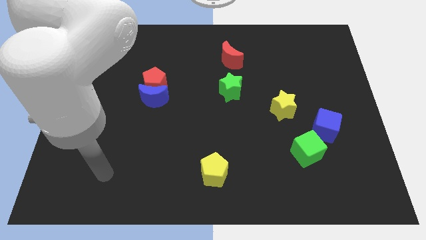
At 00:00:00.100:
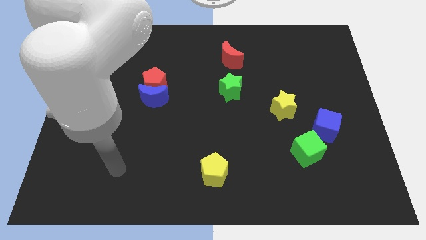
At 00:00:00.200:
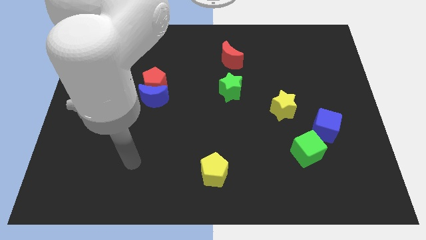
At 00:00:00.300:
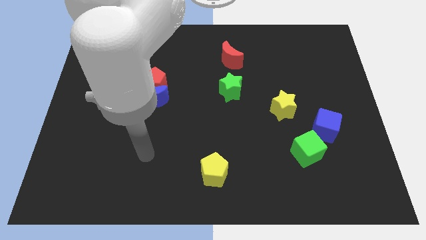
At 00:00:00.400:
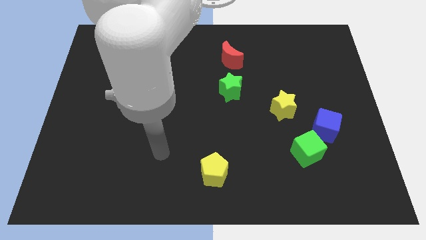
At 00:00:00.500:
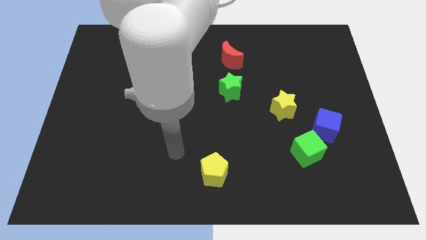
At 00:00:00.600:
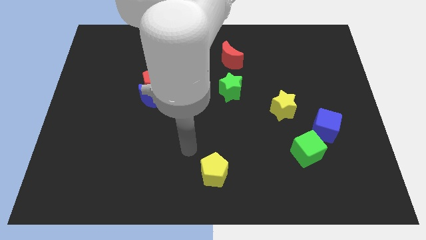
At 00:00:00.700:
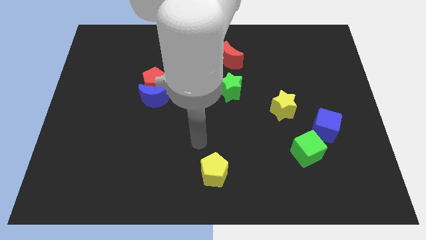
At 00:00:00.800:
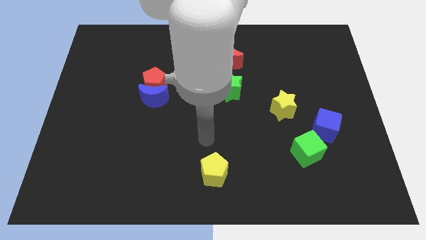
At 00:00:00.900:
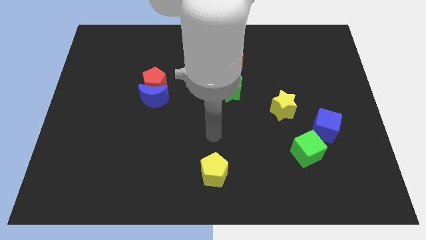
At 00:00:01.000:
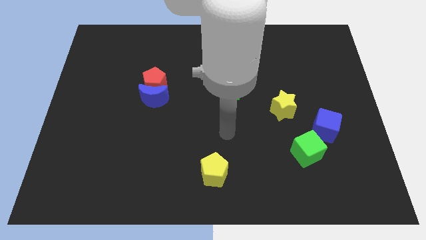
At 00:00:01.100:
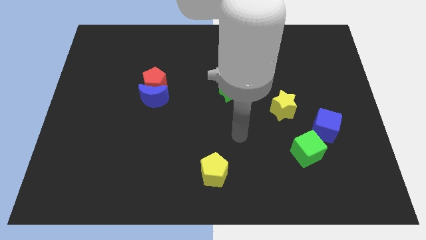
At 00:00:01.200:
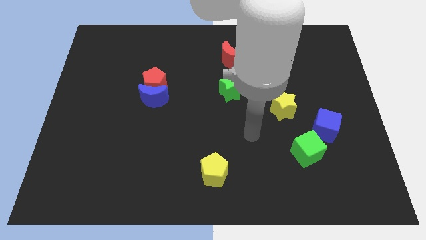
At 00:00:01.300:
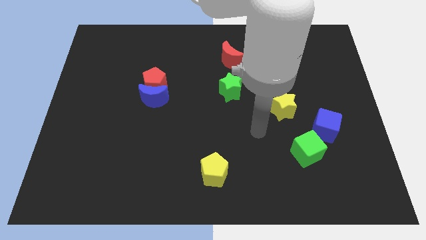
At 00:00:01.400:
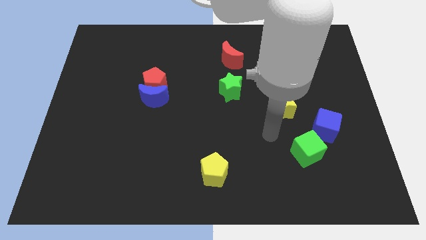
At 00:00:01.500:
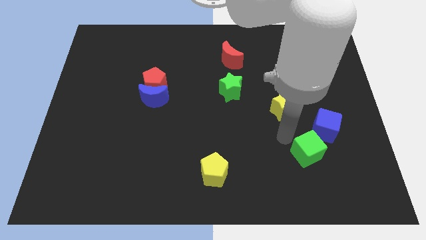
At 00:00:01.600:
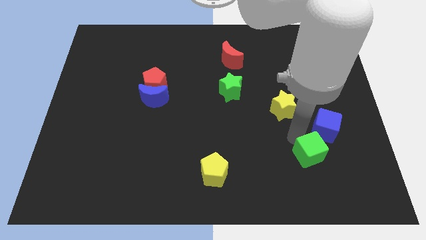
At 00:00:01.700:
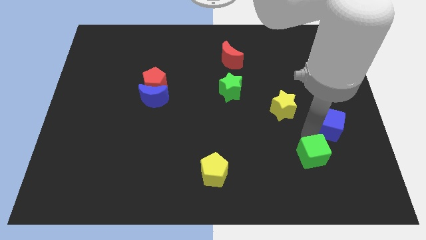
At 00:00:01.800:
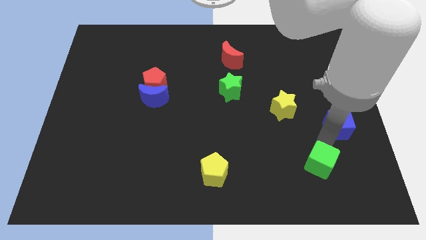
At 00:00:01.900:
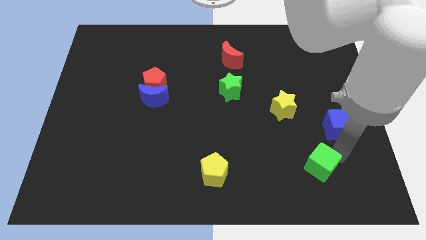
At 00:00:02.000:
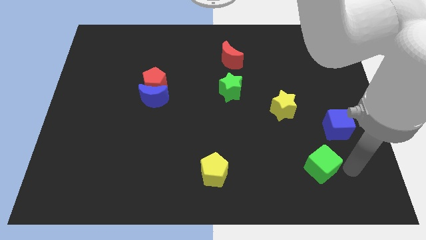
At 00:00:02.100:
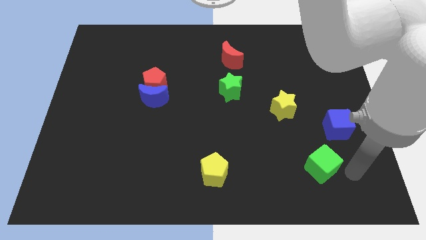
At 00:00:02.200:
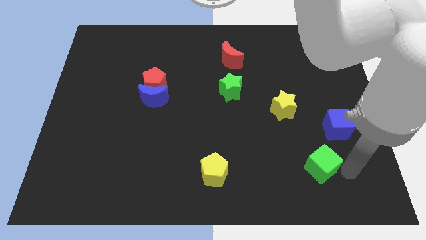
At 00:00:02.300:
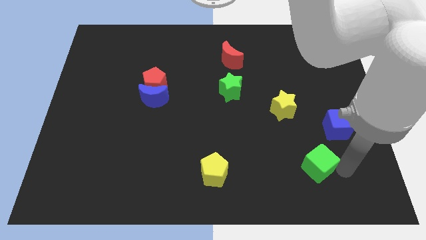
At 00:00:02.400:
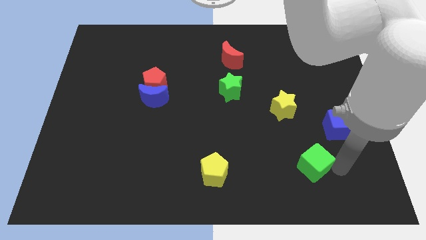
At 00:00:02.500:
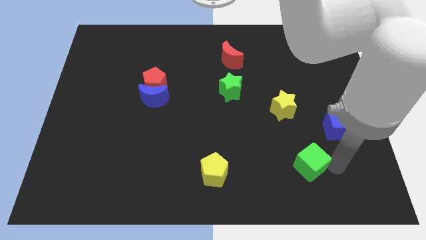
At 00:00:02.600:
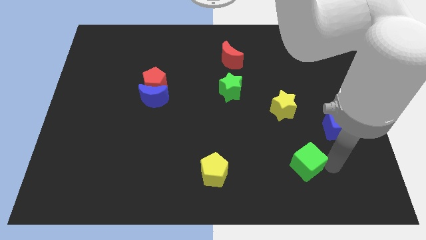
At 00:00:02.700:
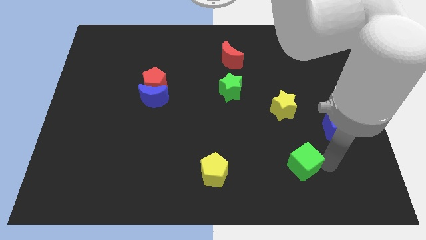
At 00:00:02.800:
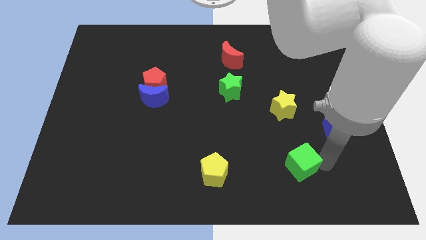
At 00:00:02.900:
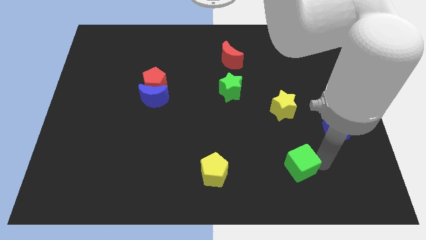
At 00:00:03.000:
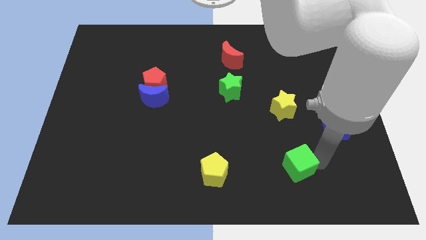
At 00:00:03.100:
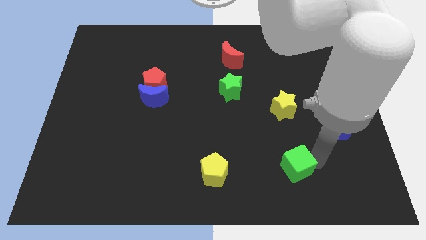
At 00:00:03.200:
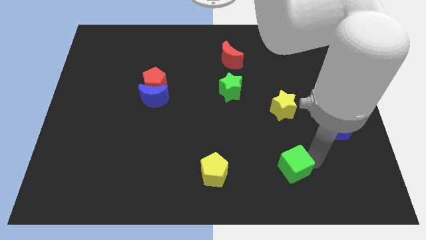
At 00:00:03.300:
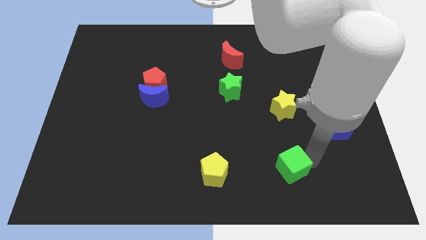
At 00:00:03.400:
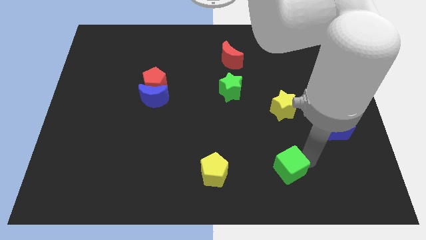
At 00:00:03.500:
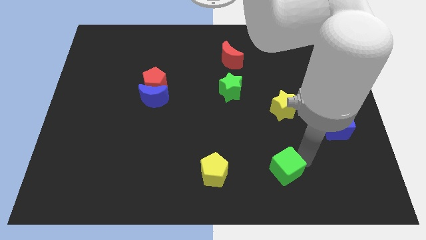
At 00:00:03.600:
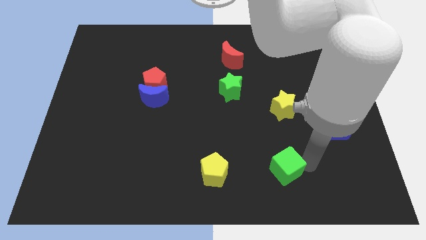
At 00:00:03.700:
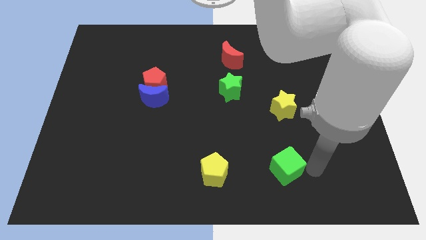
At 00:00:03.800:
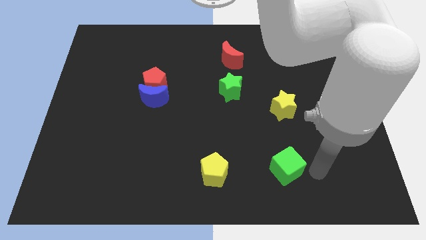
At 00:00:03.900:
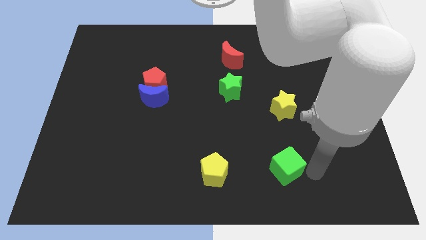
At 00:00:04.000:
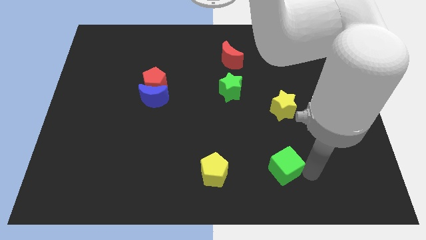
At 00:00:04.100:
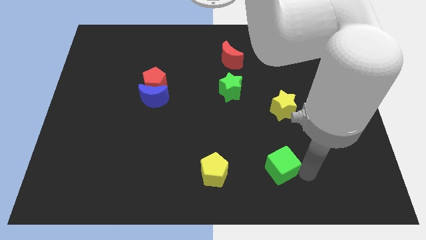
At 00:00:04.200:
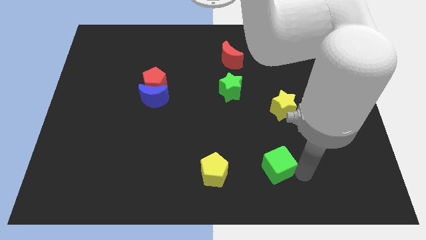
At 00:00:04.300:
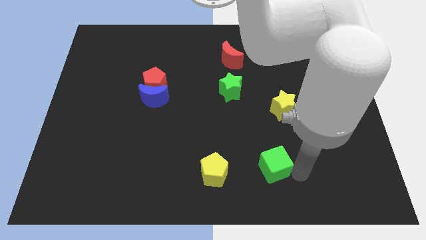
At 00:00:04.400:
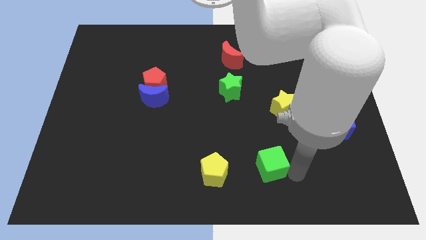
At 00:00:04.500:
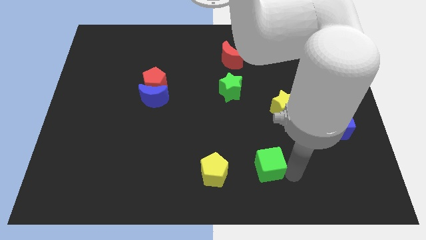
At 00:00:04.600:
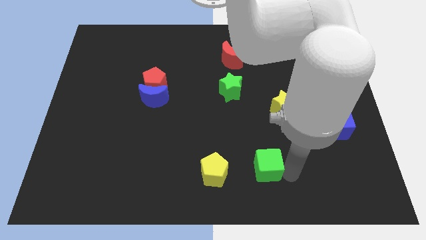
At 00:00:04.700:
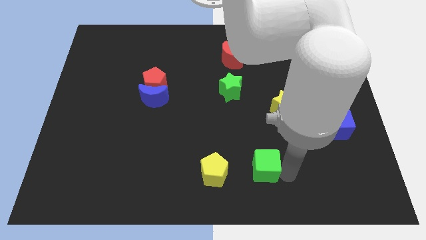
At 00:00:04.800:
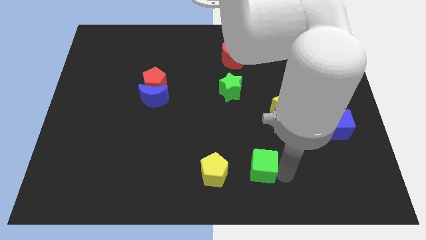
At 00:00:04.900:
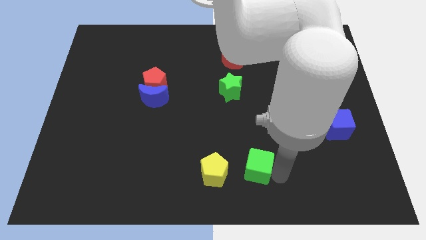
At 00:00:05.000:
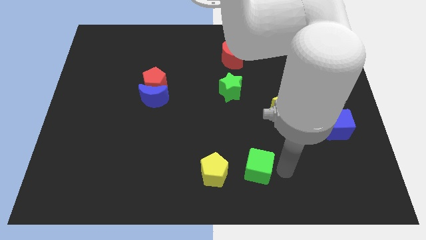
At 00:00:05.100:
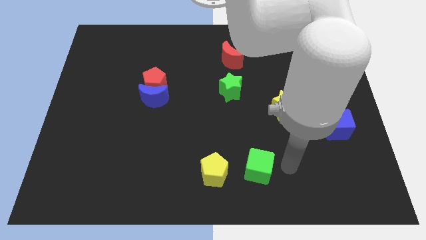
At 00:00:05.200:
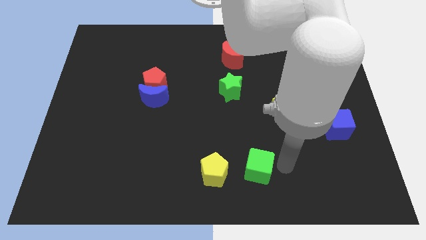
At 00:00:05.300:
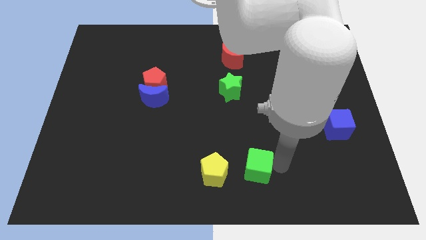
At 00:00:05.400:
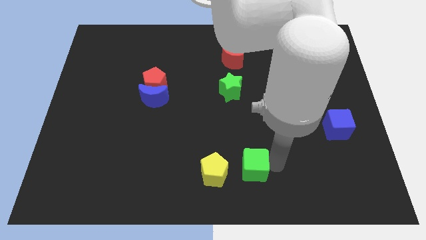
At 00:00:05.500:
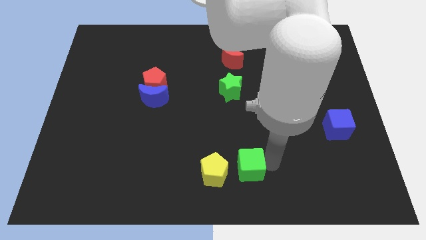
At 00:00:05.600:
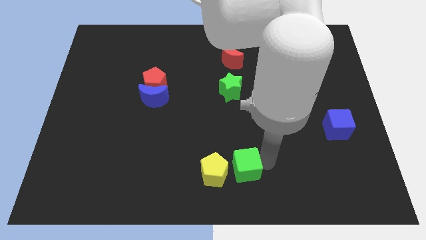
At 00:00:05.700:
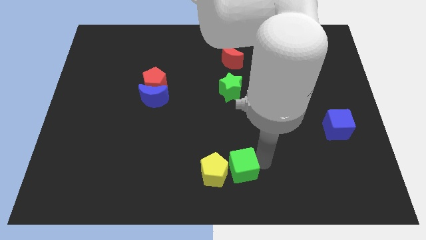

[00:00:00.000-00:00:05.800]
move the green cube towards the yellow pentagon

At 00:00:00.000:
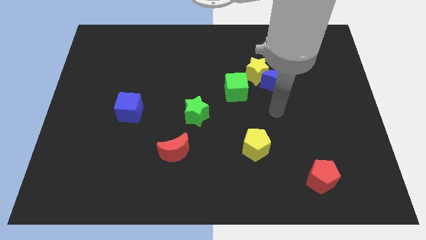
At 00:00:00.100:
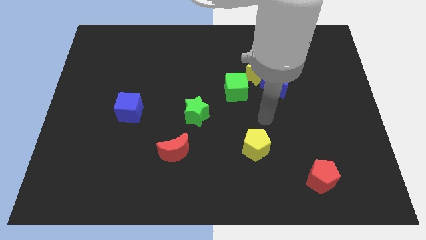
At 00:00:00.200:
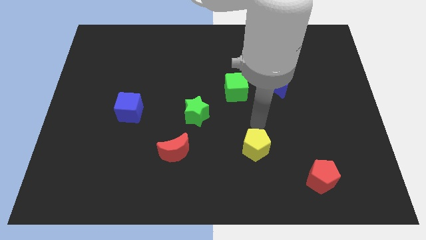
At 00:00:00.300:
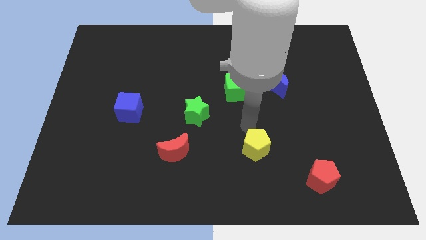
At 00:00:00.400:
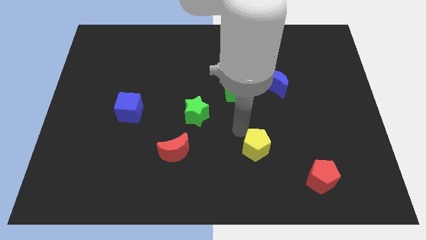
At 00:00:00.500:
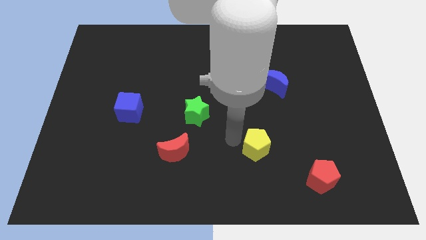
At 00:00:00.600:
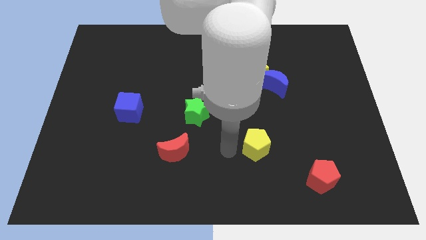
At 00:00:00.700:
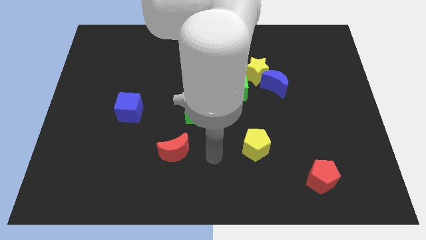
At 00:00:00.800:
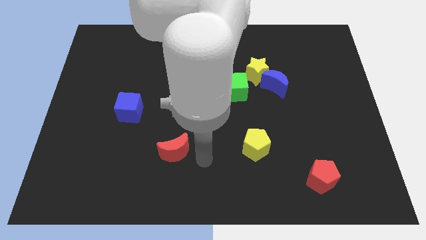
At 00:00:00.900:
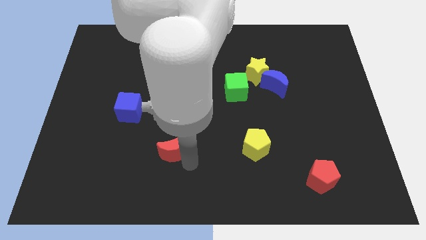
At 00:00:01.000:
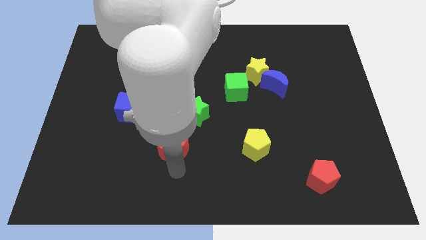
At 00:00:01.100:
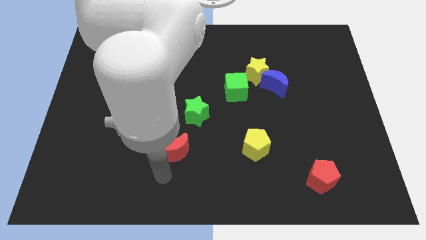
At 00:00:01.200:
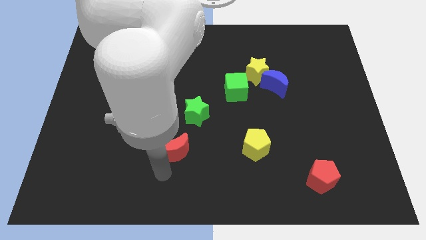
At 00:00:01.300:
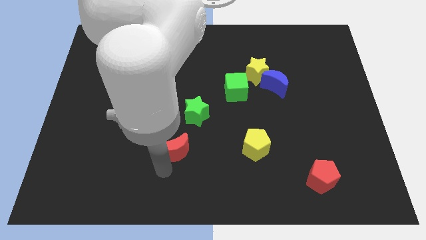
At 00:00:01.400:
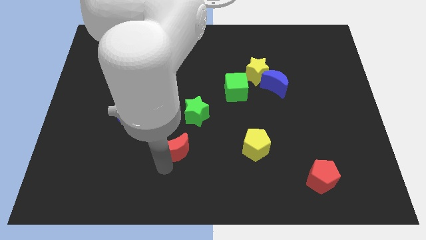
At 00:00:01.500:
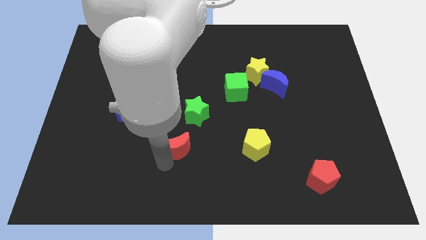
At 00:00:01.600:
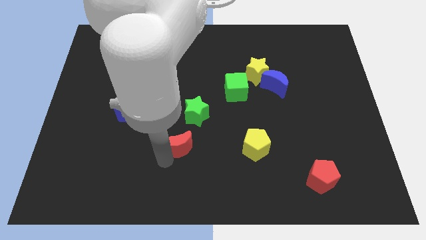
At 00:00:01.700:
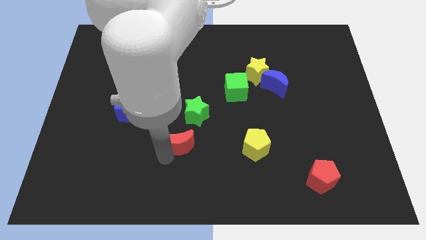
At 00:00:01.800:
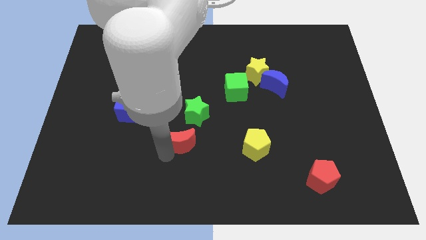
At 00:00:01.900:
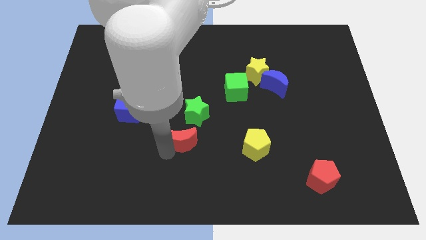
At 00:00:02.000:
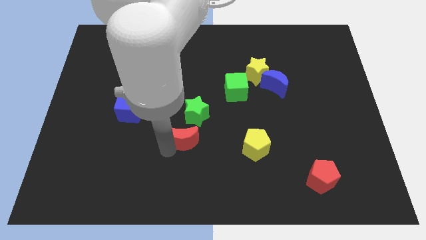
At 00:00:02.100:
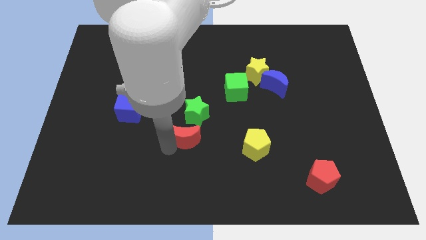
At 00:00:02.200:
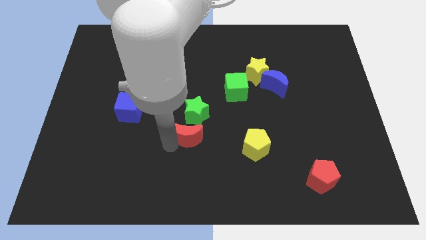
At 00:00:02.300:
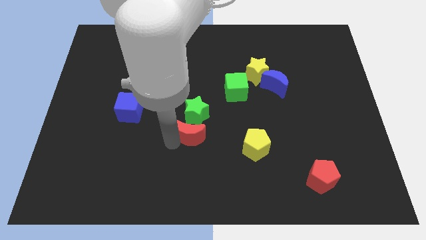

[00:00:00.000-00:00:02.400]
slide the red moon towards the green star
